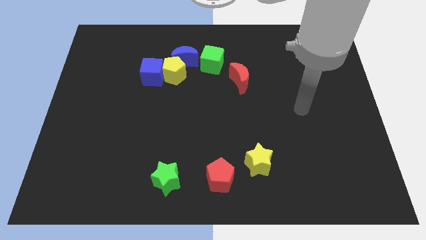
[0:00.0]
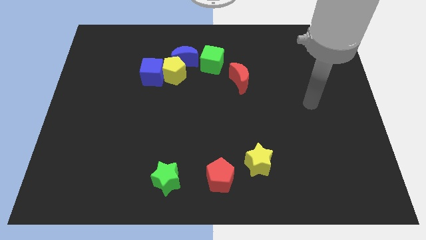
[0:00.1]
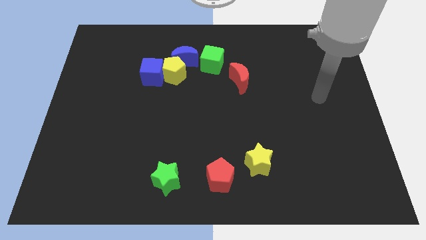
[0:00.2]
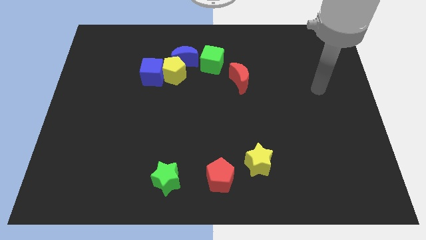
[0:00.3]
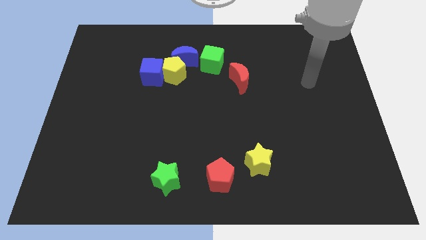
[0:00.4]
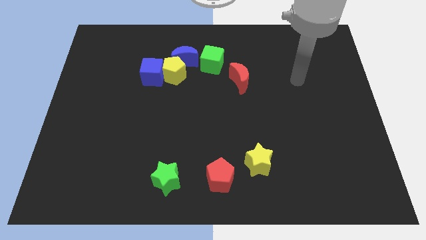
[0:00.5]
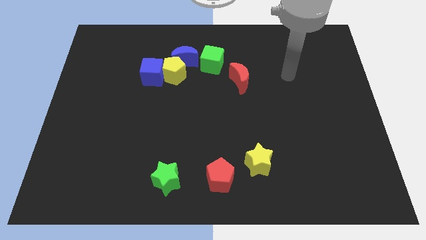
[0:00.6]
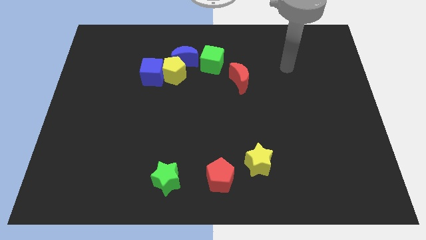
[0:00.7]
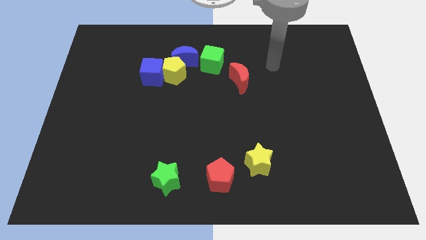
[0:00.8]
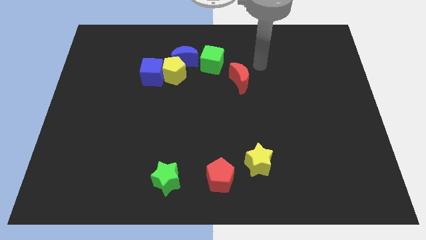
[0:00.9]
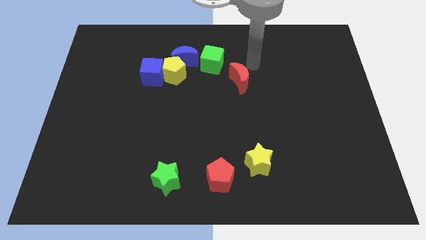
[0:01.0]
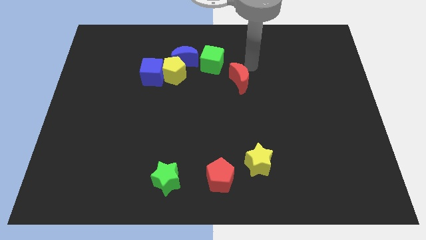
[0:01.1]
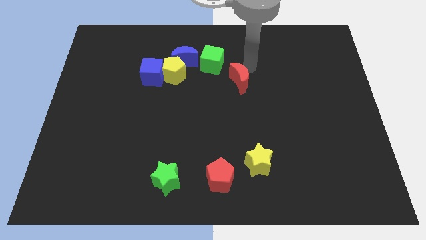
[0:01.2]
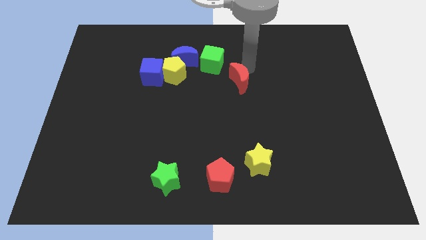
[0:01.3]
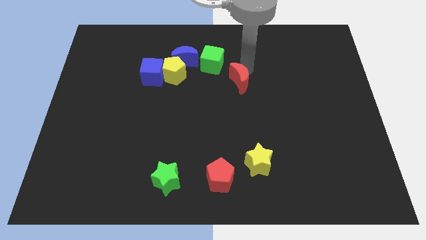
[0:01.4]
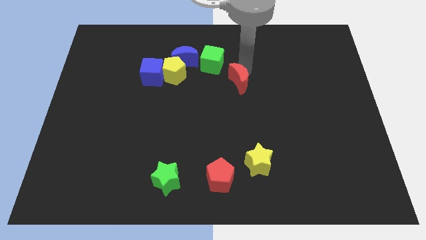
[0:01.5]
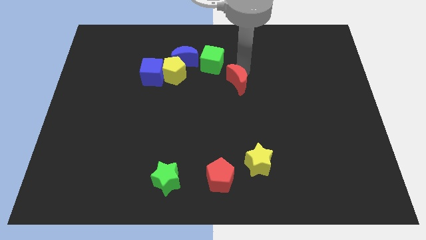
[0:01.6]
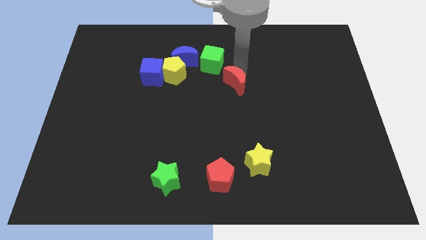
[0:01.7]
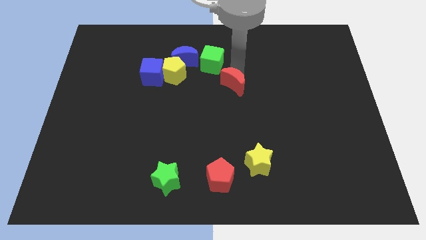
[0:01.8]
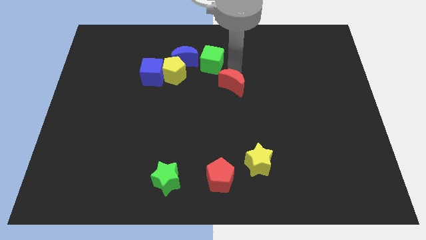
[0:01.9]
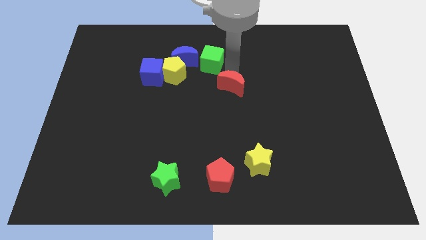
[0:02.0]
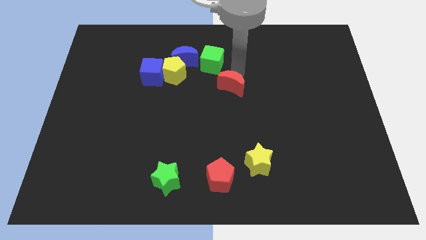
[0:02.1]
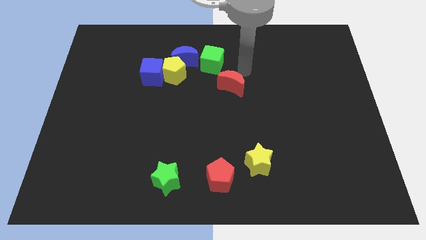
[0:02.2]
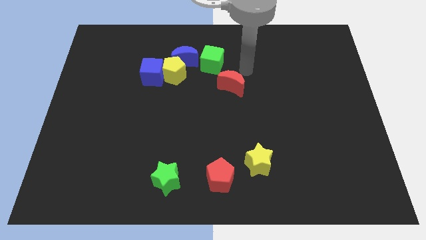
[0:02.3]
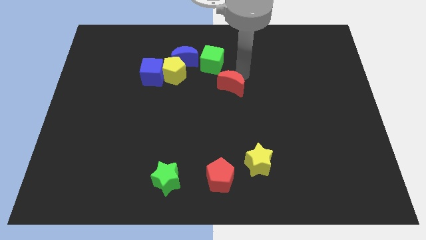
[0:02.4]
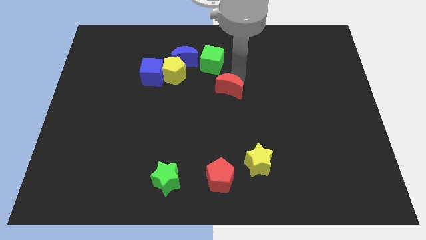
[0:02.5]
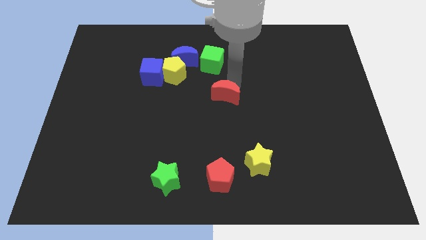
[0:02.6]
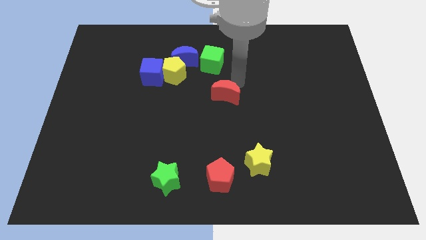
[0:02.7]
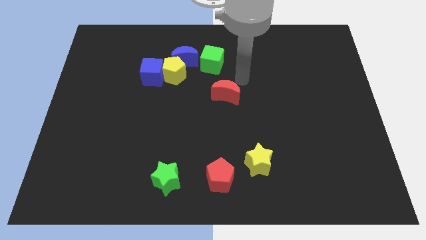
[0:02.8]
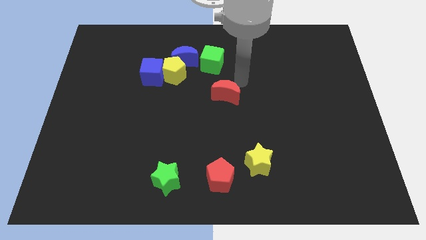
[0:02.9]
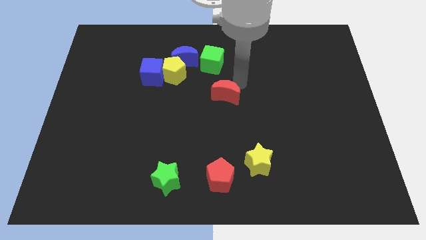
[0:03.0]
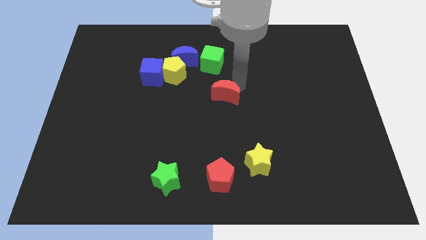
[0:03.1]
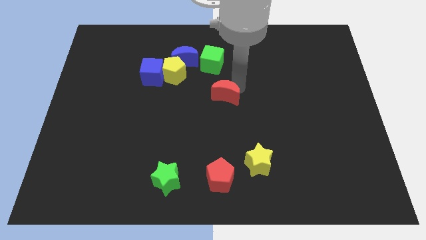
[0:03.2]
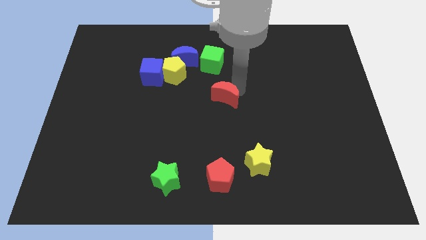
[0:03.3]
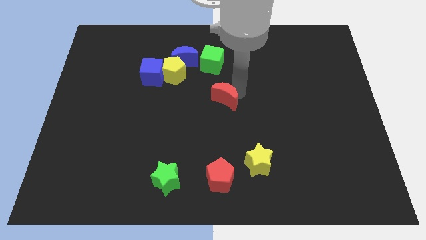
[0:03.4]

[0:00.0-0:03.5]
slide the red moon downwards and then left a little bit

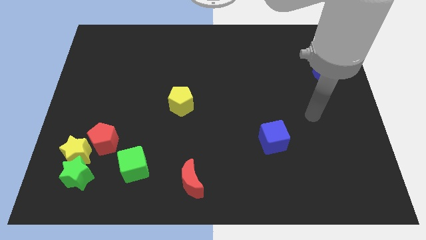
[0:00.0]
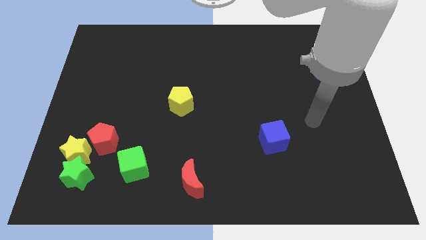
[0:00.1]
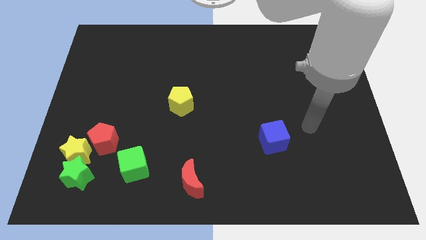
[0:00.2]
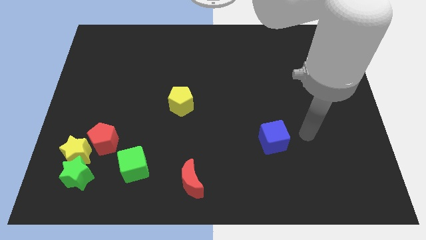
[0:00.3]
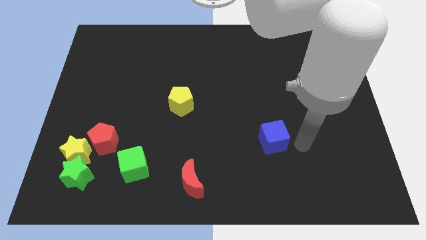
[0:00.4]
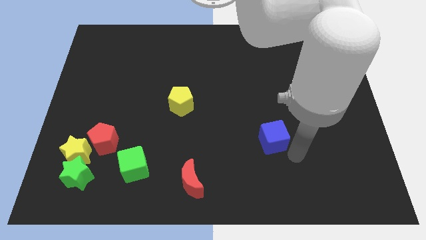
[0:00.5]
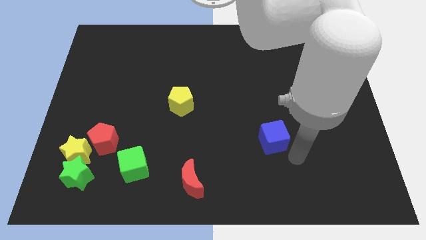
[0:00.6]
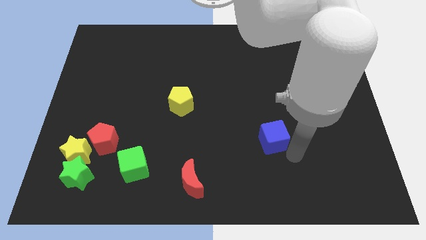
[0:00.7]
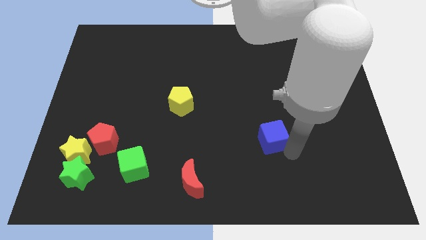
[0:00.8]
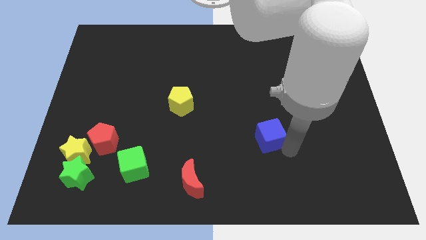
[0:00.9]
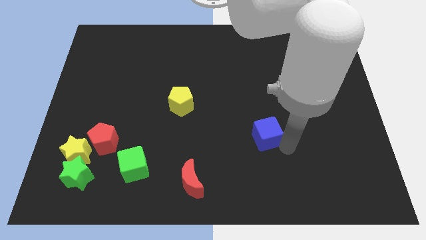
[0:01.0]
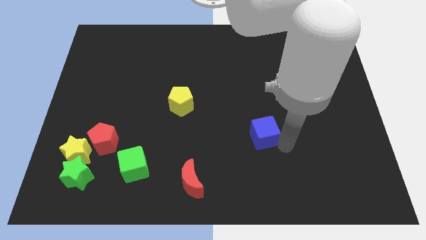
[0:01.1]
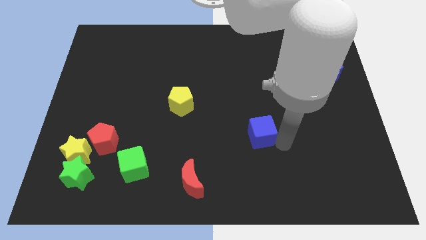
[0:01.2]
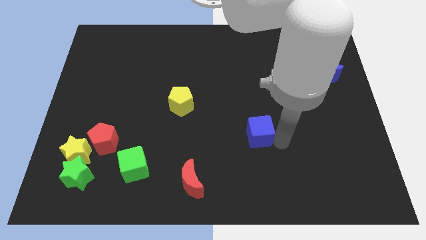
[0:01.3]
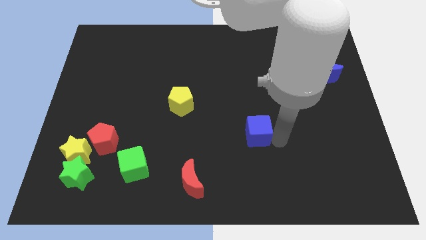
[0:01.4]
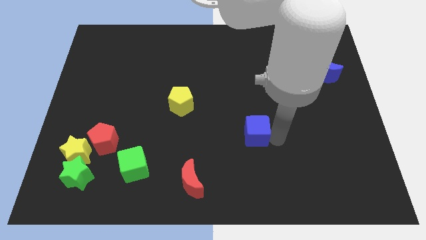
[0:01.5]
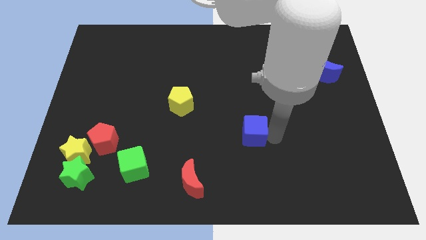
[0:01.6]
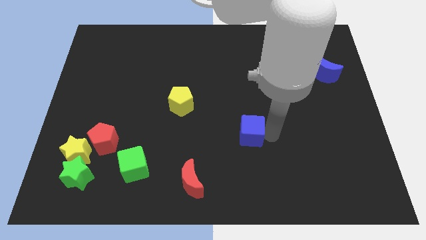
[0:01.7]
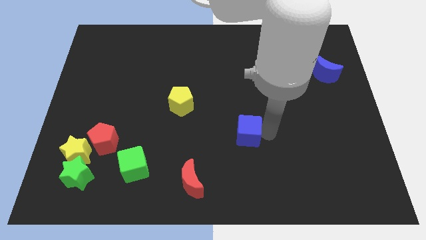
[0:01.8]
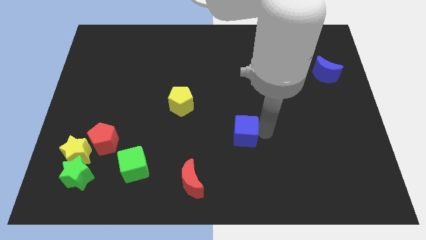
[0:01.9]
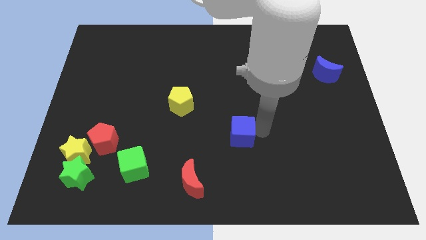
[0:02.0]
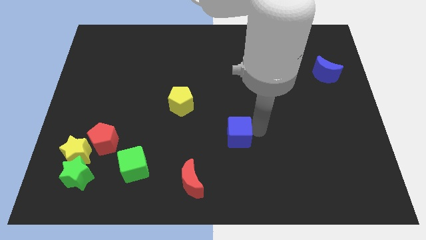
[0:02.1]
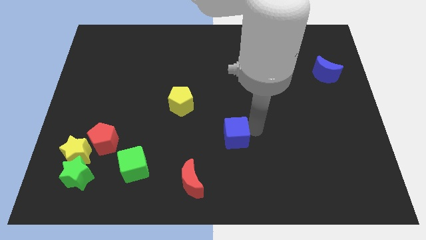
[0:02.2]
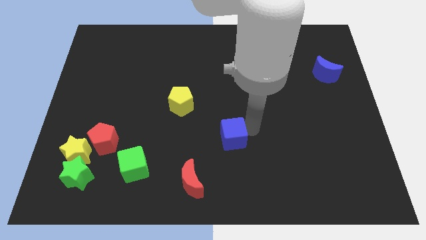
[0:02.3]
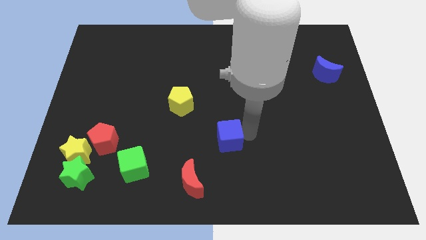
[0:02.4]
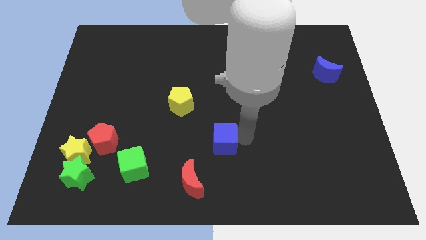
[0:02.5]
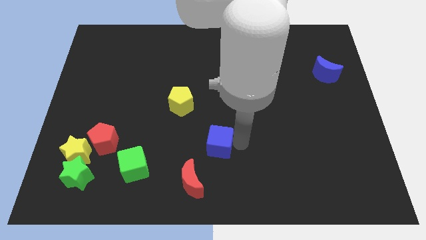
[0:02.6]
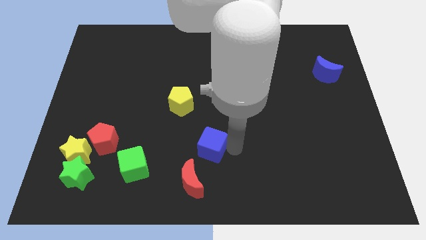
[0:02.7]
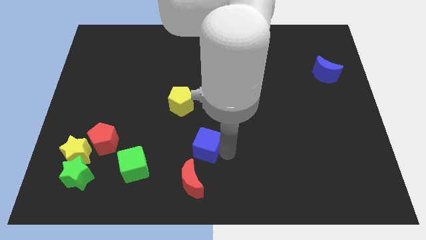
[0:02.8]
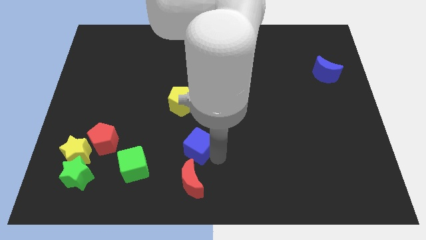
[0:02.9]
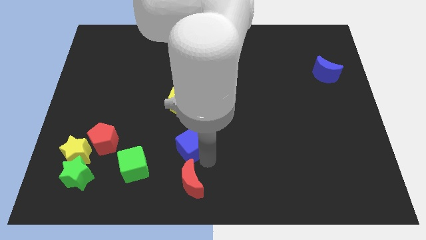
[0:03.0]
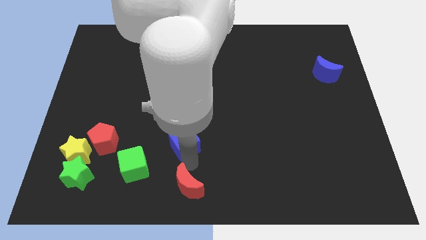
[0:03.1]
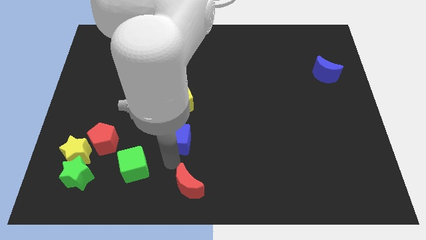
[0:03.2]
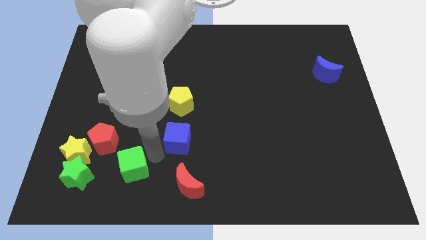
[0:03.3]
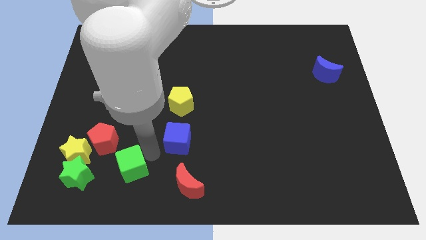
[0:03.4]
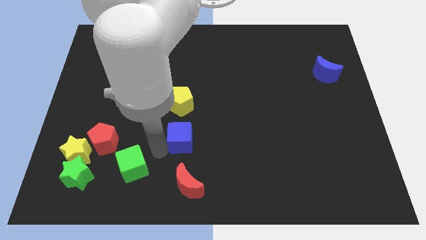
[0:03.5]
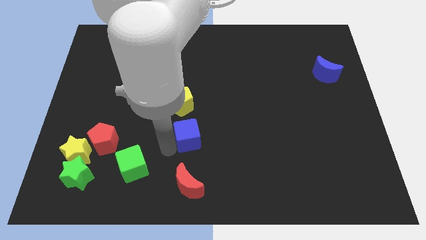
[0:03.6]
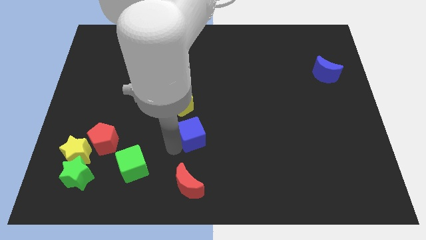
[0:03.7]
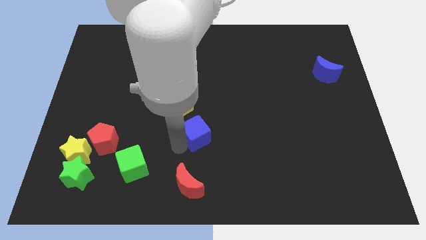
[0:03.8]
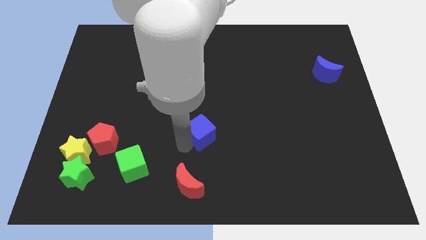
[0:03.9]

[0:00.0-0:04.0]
move the blue cube a little diagonally up and left

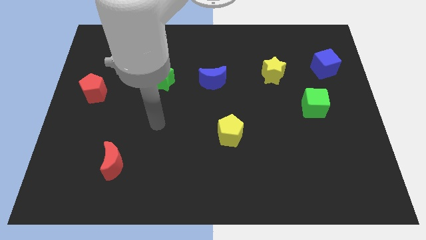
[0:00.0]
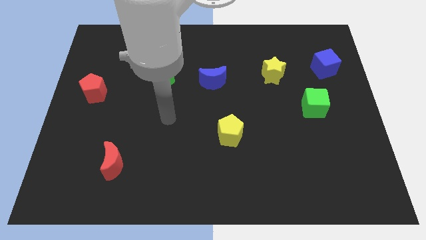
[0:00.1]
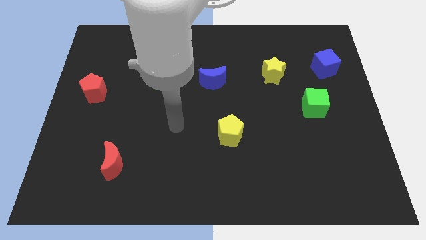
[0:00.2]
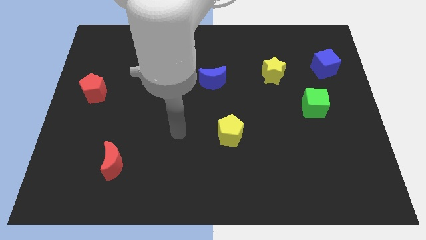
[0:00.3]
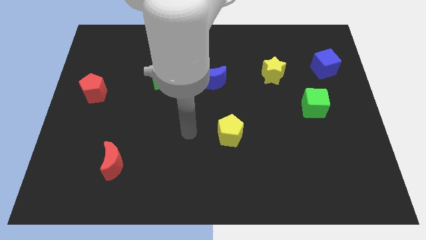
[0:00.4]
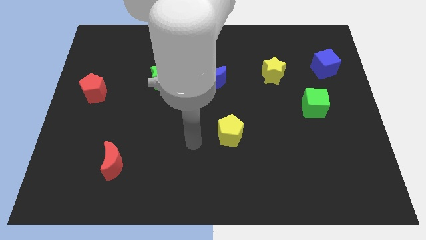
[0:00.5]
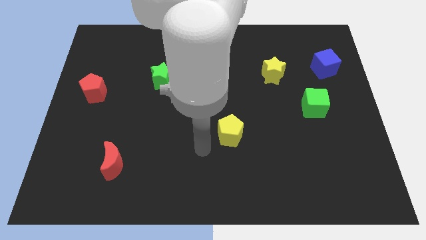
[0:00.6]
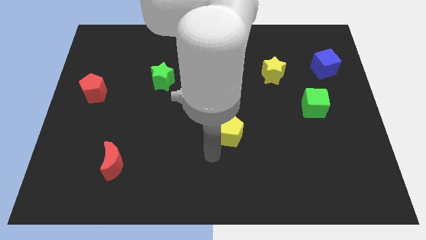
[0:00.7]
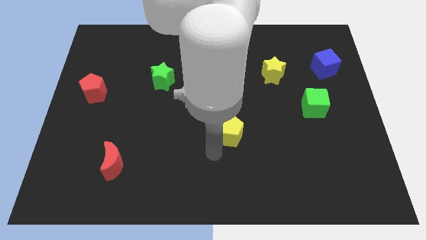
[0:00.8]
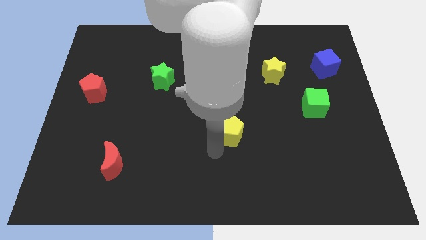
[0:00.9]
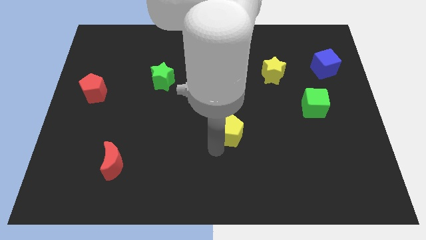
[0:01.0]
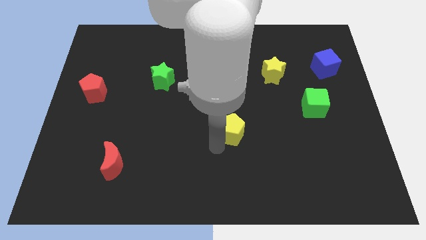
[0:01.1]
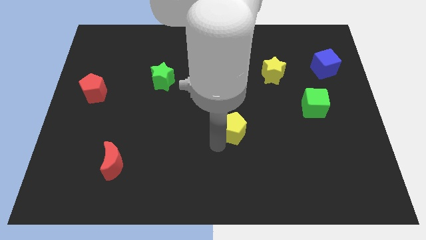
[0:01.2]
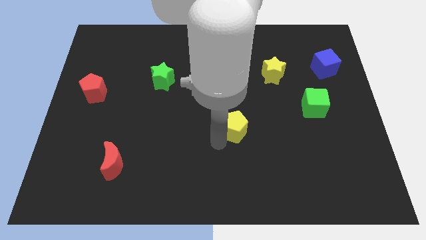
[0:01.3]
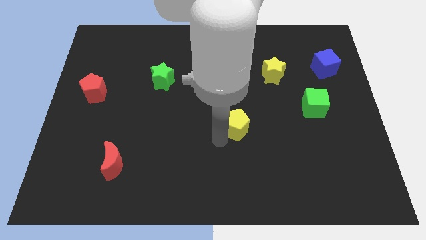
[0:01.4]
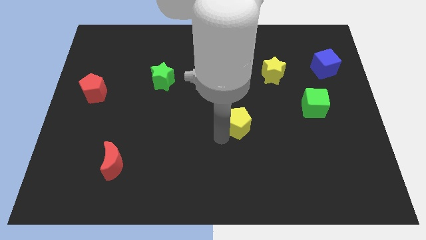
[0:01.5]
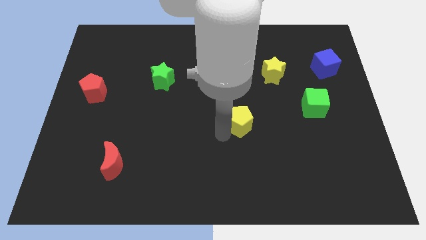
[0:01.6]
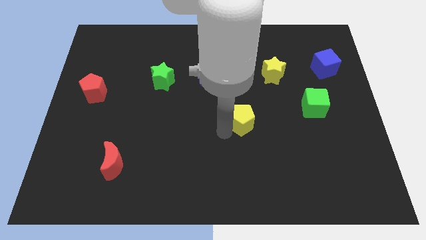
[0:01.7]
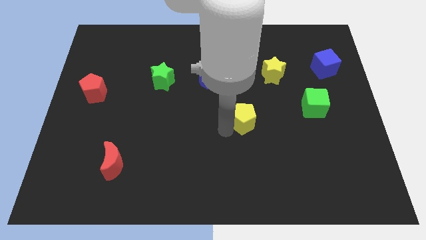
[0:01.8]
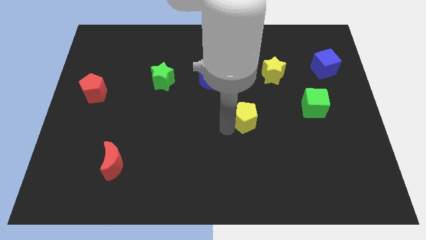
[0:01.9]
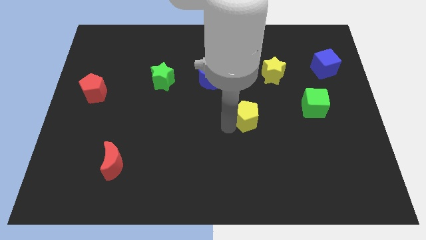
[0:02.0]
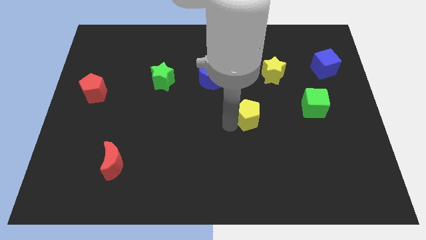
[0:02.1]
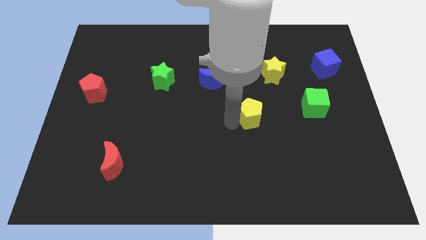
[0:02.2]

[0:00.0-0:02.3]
push the yellow pentagon slightly upwards and then right
